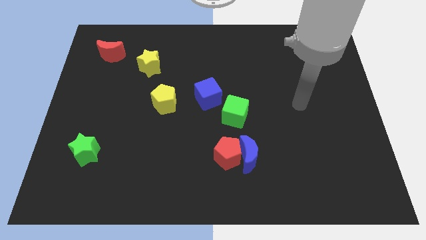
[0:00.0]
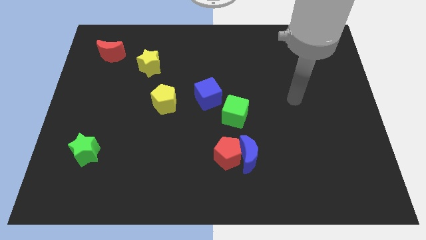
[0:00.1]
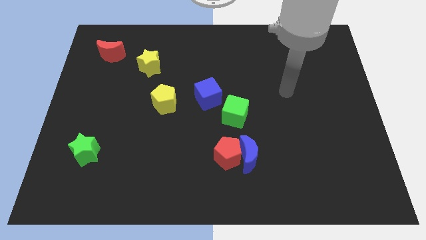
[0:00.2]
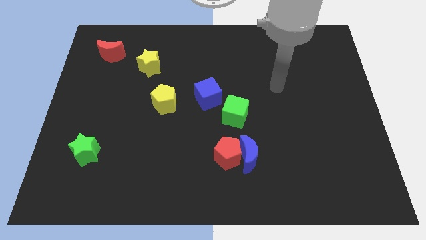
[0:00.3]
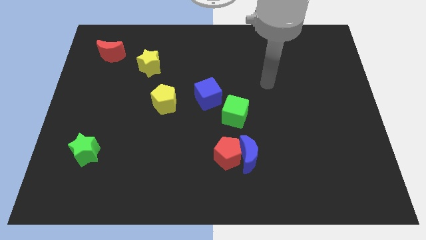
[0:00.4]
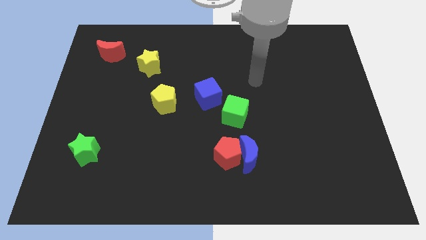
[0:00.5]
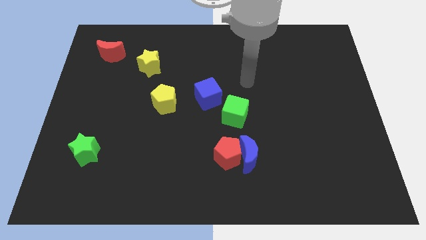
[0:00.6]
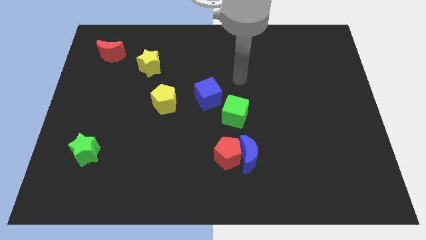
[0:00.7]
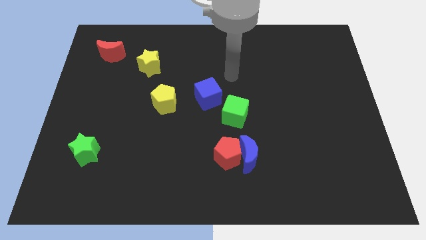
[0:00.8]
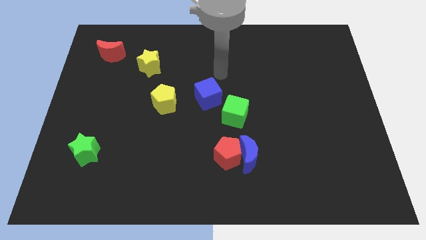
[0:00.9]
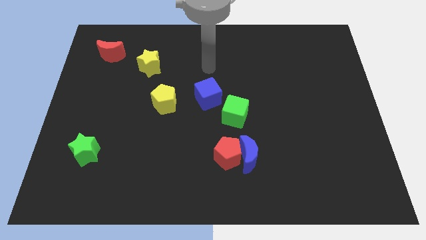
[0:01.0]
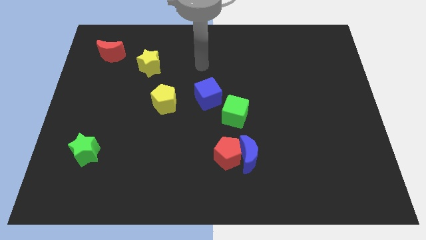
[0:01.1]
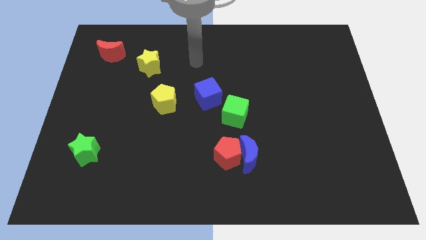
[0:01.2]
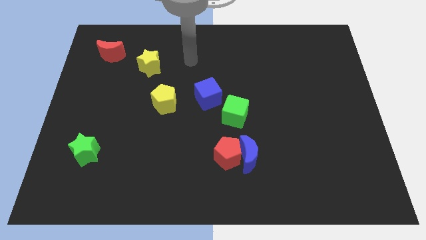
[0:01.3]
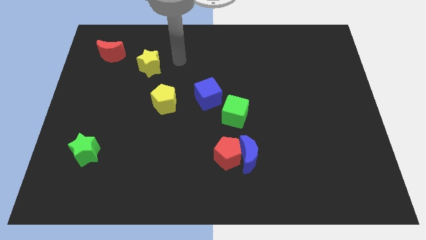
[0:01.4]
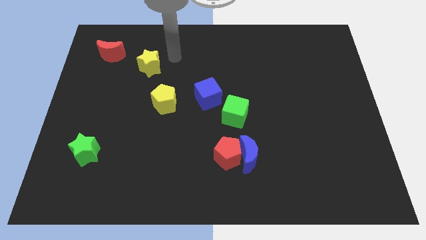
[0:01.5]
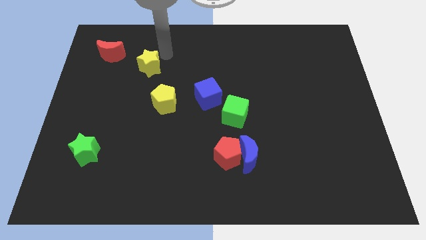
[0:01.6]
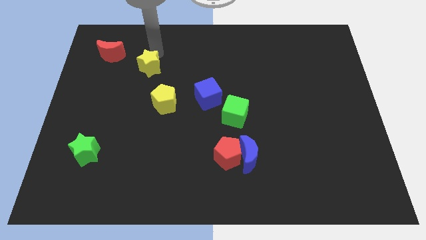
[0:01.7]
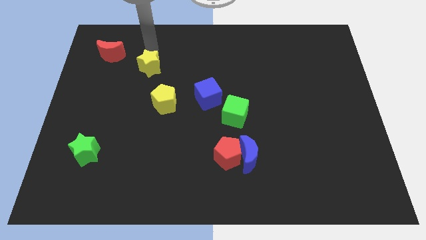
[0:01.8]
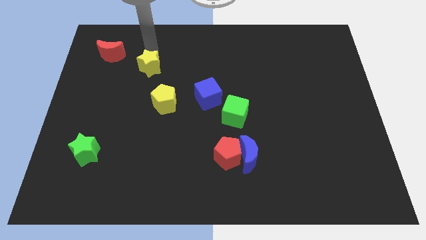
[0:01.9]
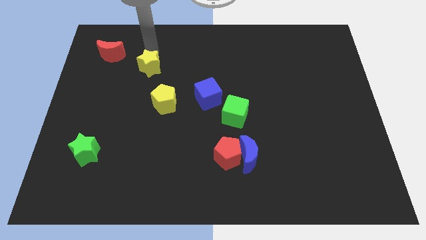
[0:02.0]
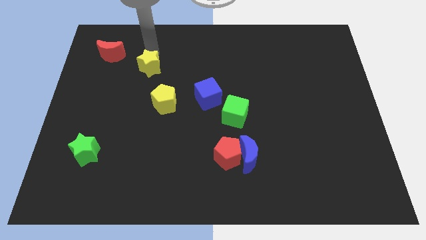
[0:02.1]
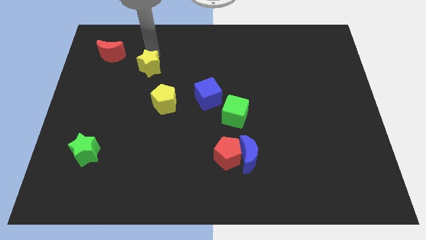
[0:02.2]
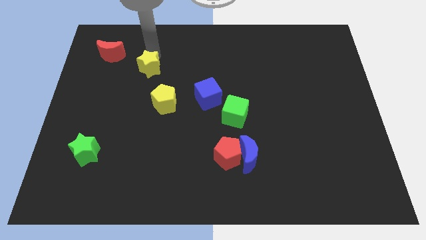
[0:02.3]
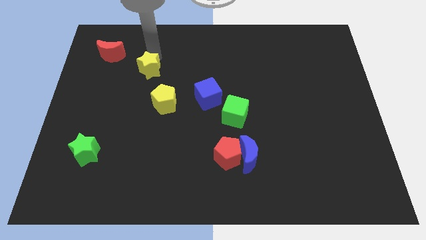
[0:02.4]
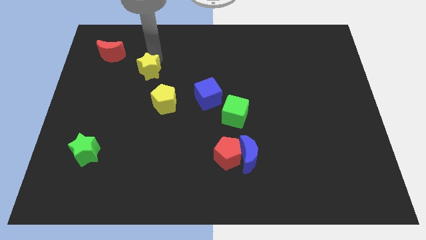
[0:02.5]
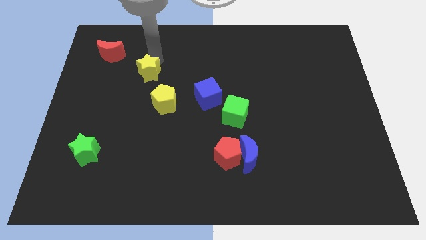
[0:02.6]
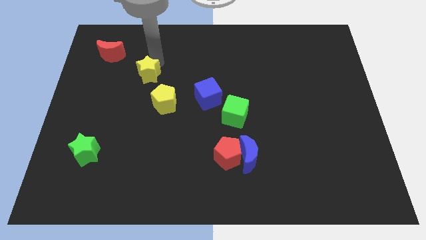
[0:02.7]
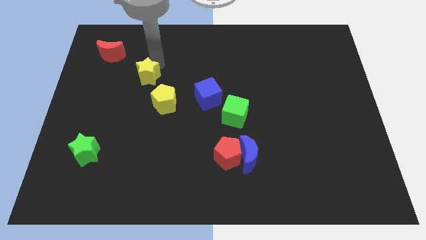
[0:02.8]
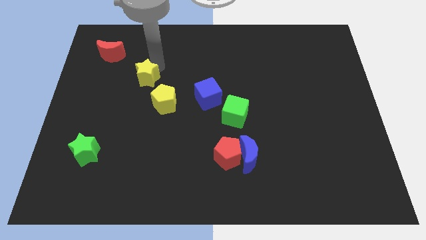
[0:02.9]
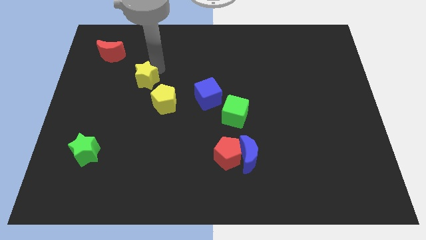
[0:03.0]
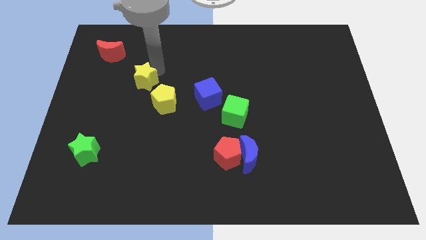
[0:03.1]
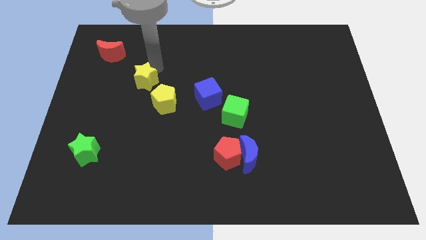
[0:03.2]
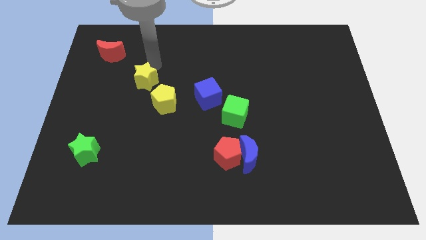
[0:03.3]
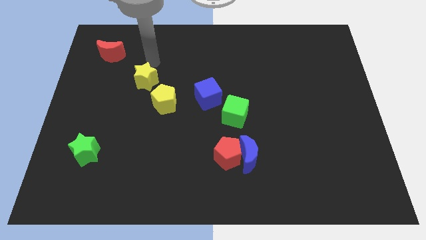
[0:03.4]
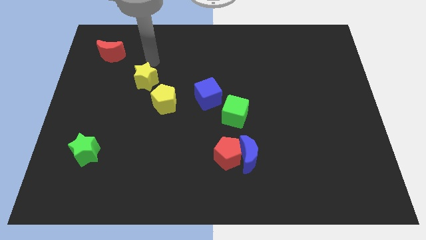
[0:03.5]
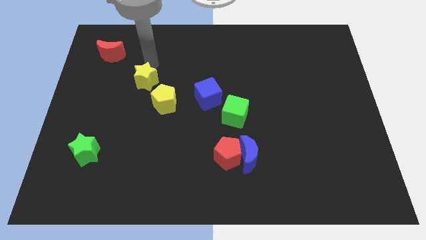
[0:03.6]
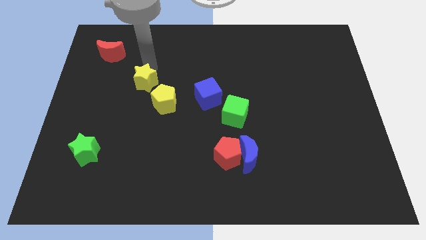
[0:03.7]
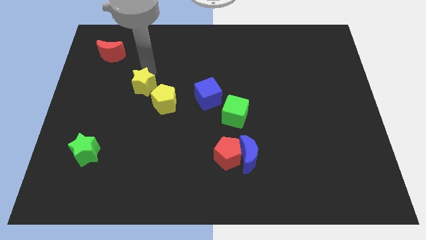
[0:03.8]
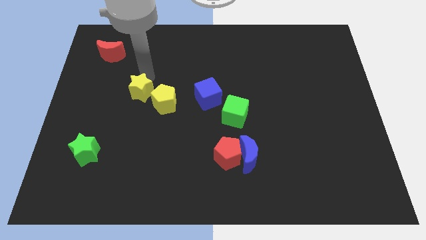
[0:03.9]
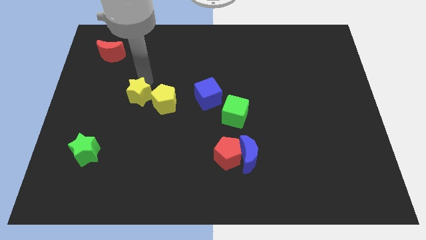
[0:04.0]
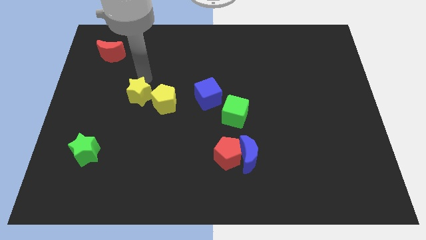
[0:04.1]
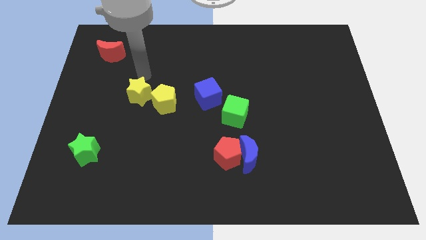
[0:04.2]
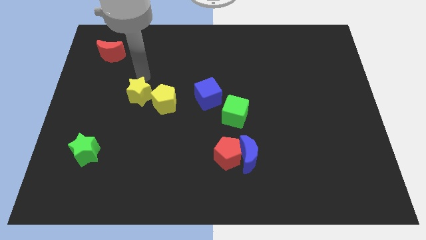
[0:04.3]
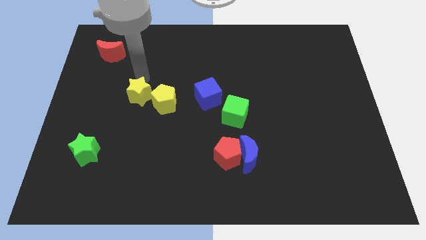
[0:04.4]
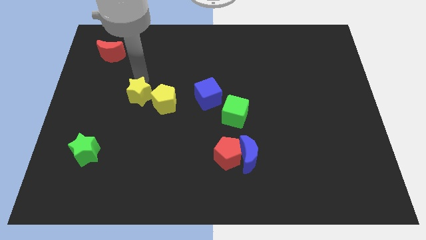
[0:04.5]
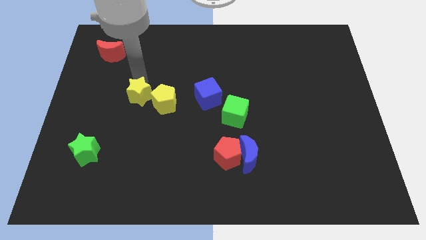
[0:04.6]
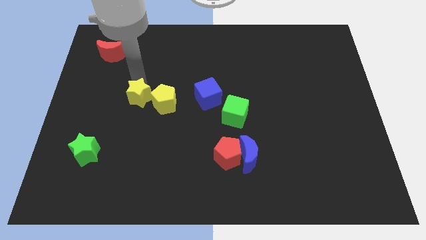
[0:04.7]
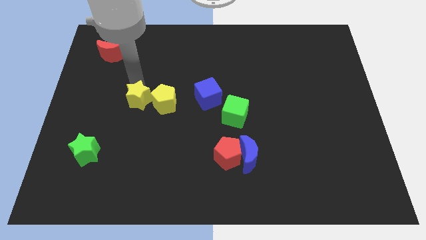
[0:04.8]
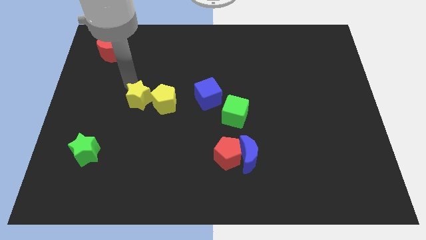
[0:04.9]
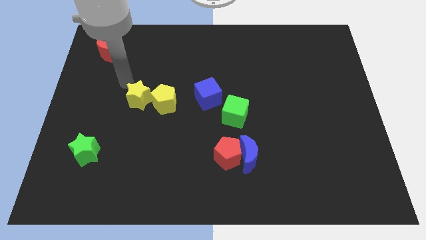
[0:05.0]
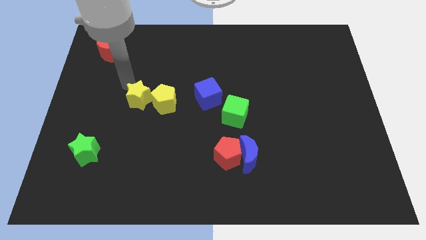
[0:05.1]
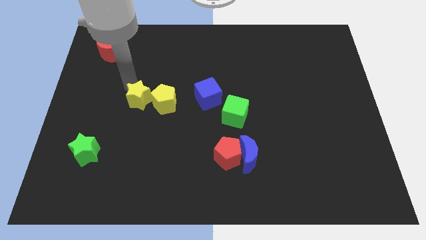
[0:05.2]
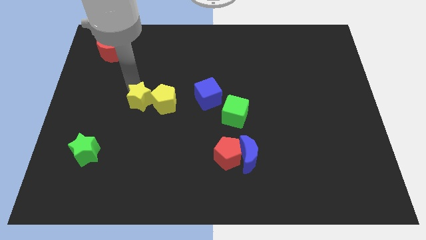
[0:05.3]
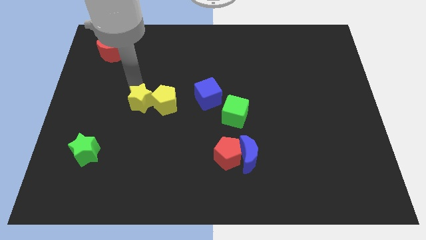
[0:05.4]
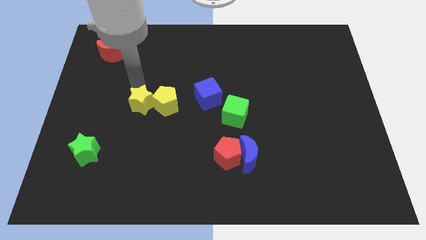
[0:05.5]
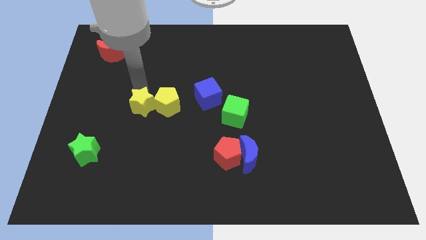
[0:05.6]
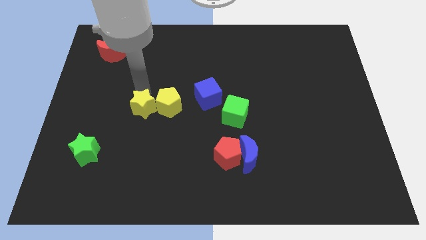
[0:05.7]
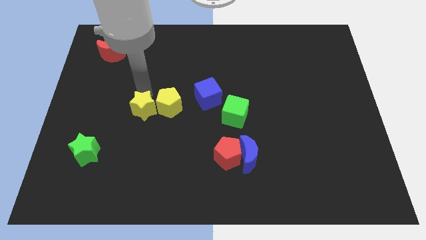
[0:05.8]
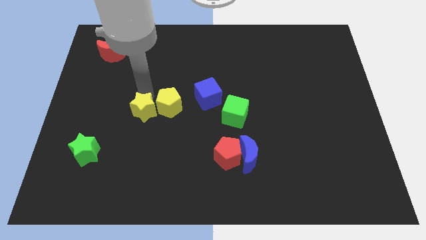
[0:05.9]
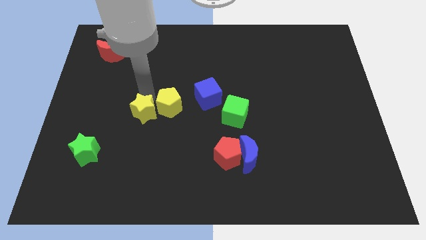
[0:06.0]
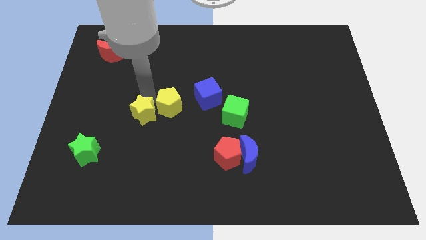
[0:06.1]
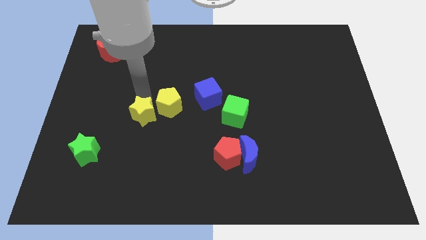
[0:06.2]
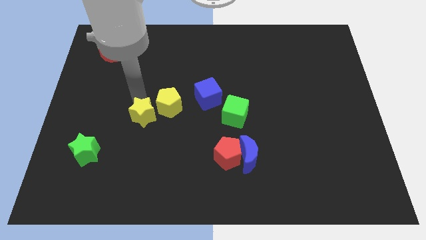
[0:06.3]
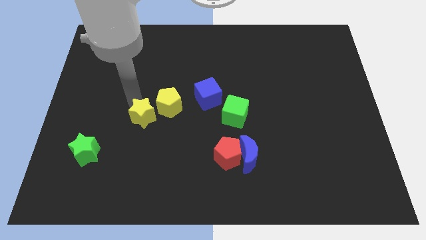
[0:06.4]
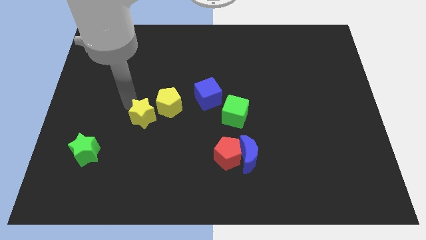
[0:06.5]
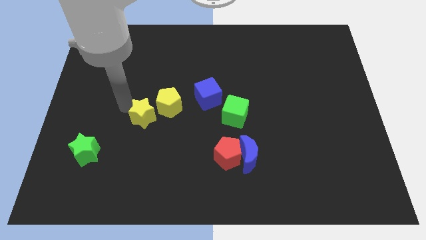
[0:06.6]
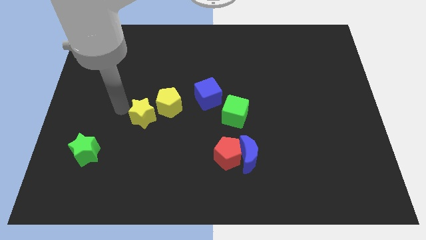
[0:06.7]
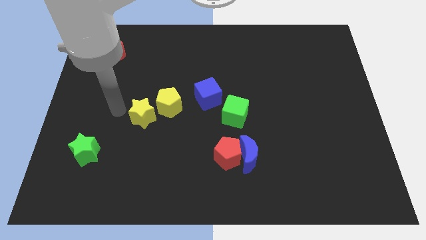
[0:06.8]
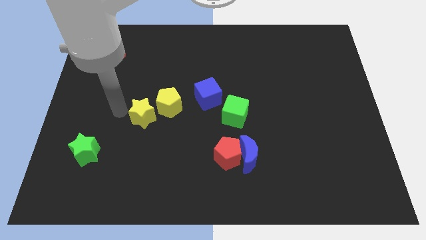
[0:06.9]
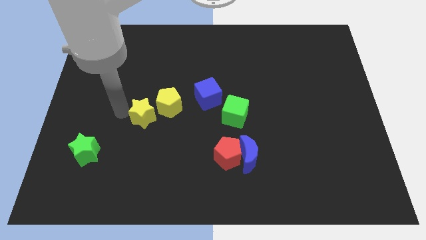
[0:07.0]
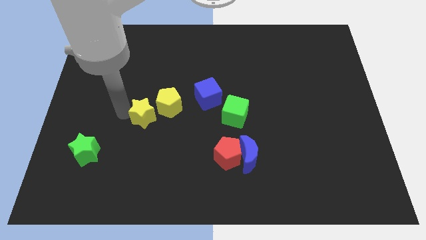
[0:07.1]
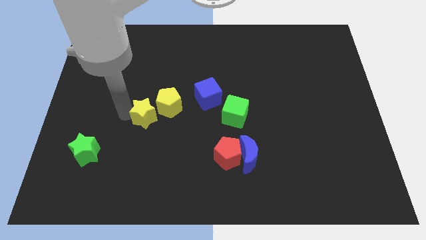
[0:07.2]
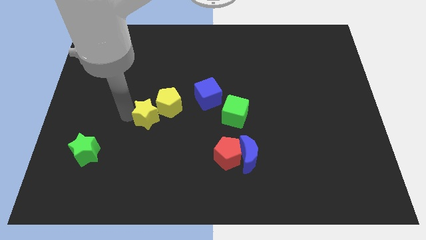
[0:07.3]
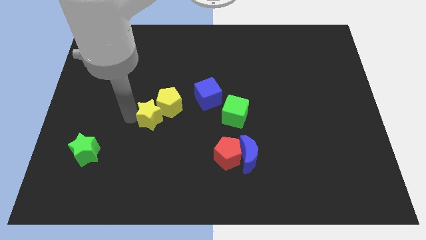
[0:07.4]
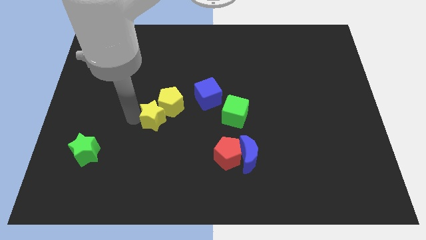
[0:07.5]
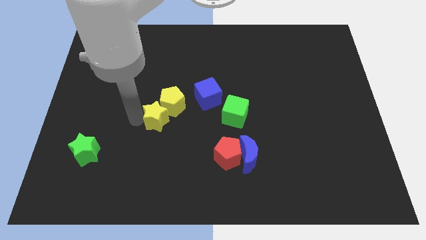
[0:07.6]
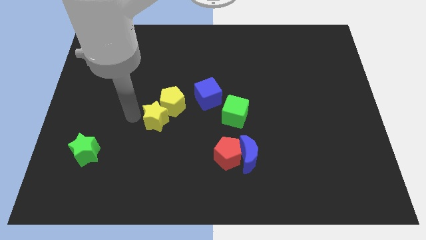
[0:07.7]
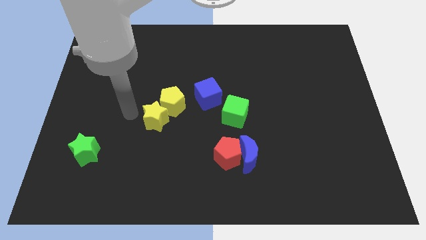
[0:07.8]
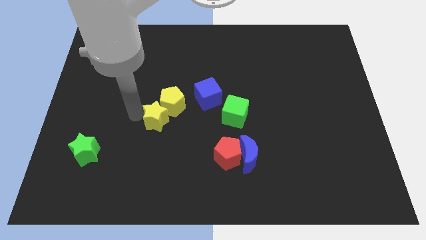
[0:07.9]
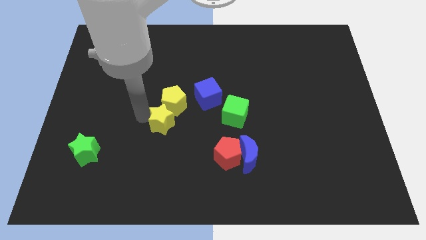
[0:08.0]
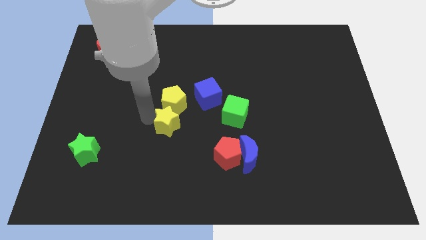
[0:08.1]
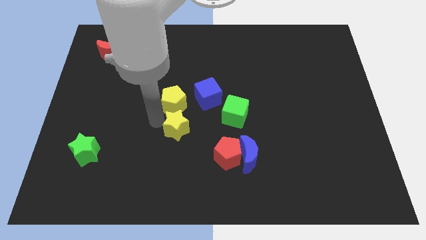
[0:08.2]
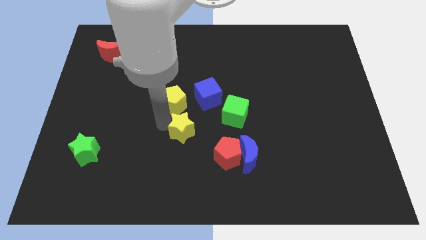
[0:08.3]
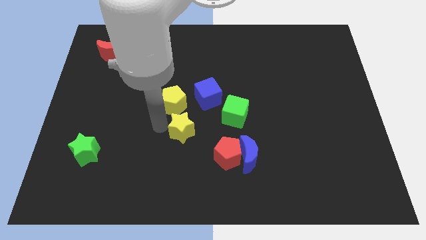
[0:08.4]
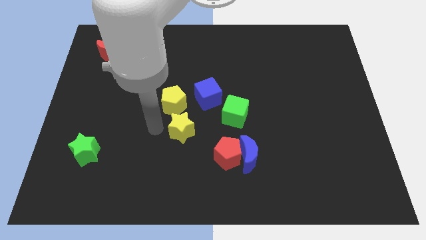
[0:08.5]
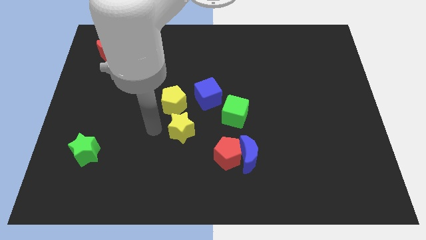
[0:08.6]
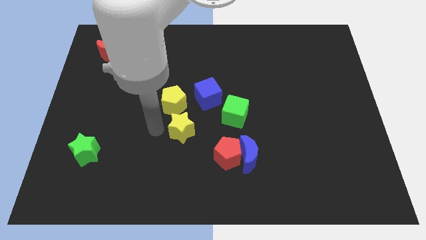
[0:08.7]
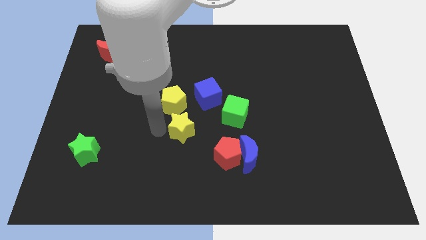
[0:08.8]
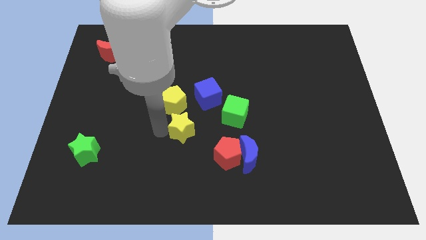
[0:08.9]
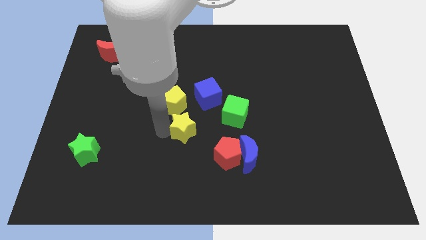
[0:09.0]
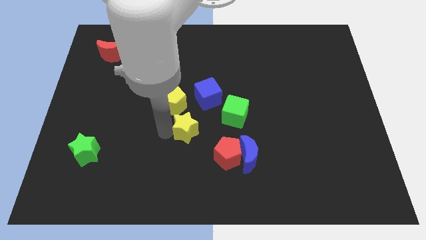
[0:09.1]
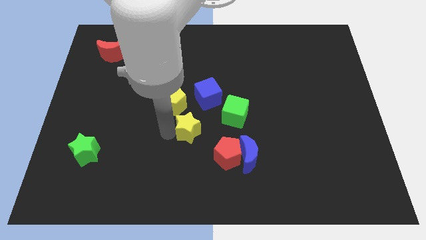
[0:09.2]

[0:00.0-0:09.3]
slide the yellow star diagonally downwards and to the right
